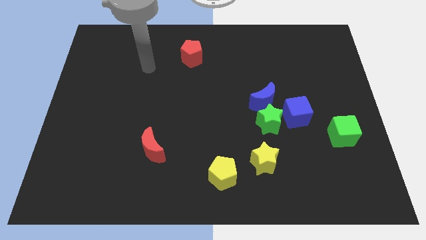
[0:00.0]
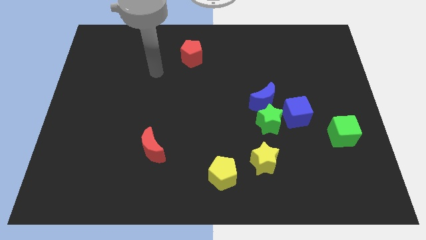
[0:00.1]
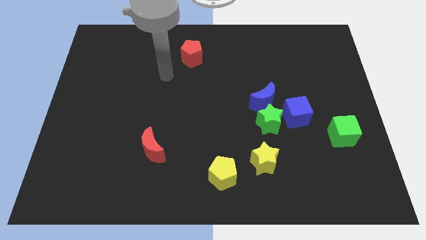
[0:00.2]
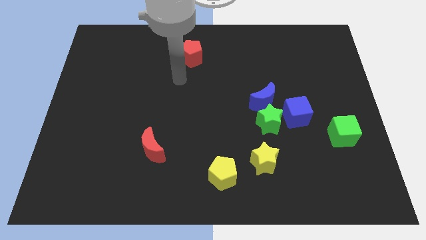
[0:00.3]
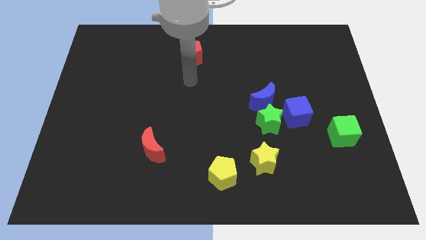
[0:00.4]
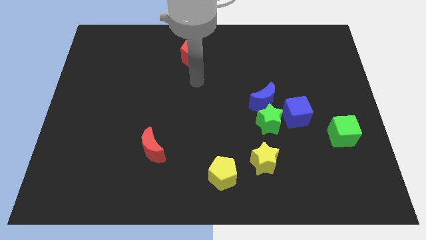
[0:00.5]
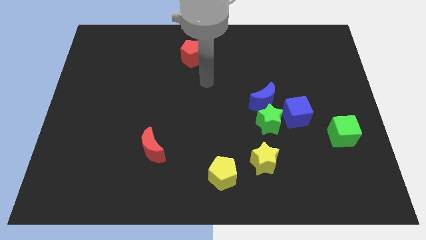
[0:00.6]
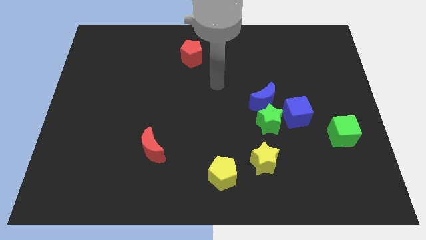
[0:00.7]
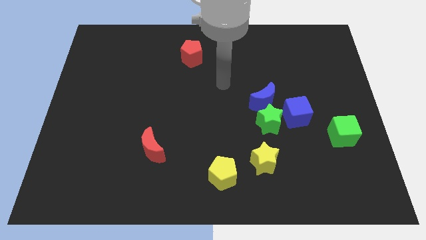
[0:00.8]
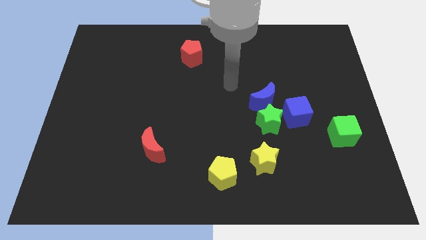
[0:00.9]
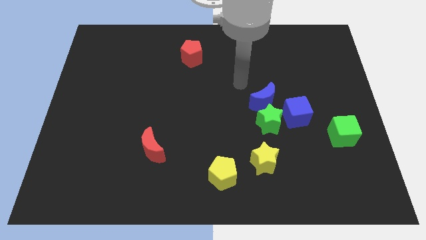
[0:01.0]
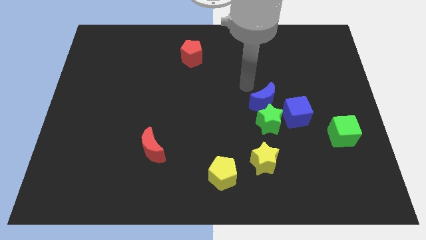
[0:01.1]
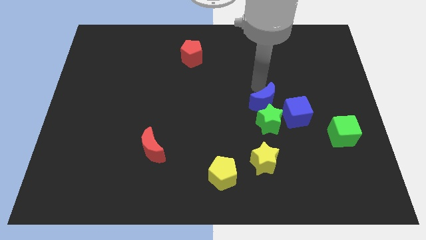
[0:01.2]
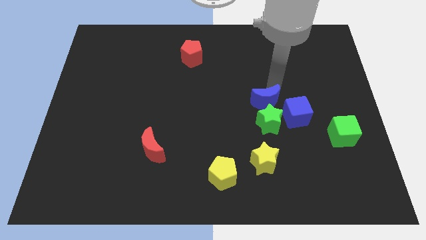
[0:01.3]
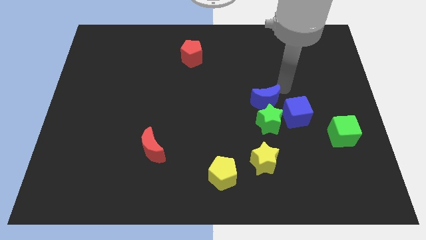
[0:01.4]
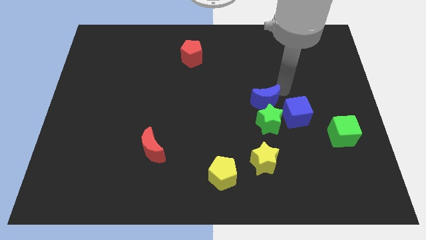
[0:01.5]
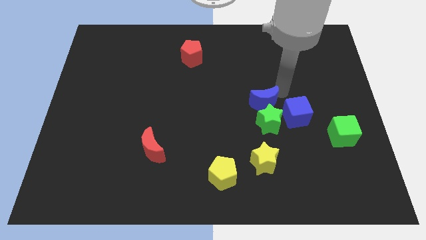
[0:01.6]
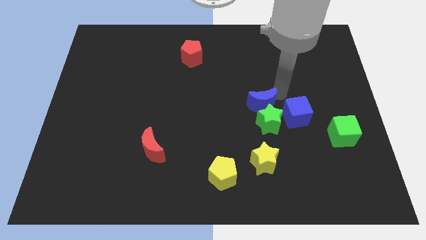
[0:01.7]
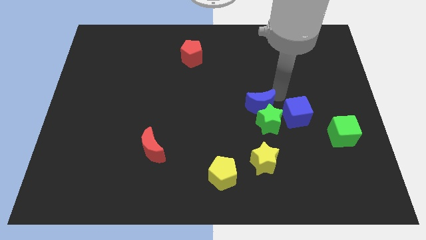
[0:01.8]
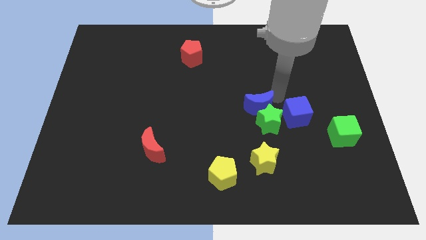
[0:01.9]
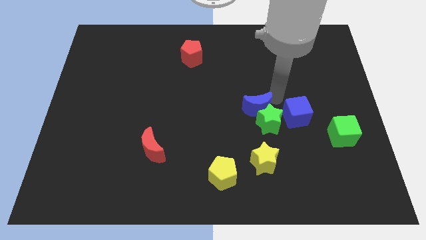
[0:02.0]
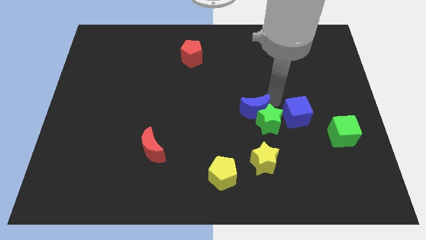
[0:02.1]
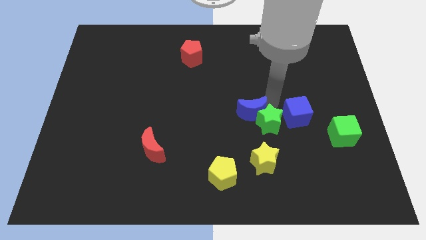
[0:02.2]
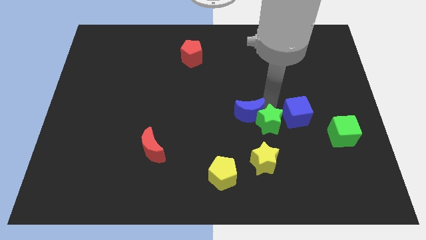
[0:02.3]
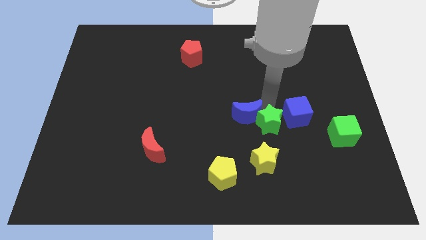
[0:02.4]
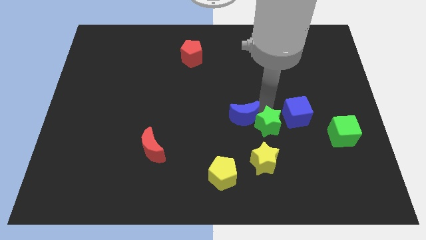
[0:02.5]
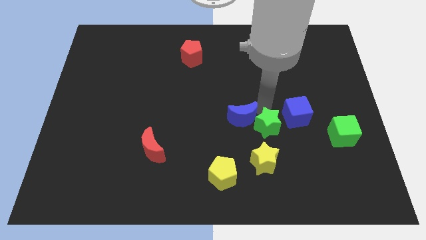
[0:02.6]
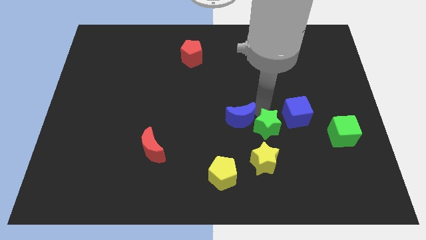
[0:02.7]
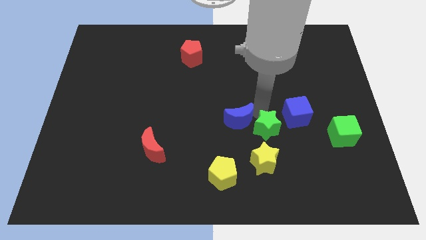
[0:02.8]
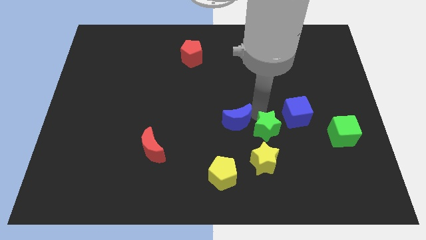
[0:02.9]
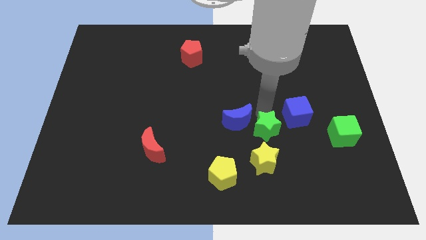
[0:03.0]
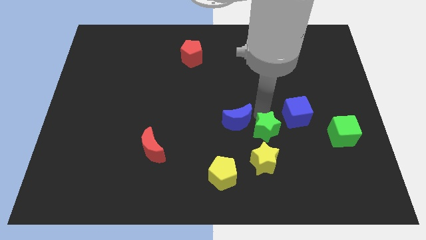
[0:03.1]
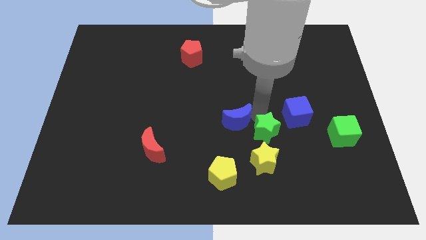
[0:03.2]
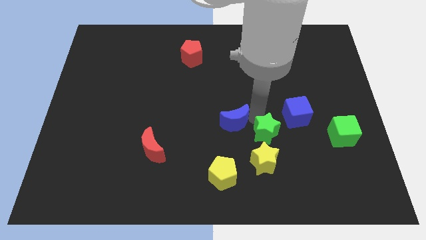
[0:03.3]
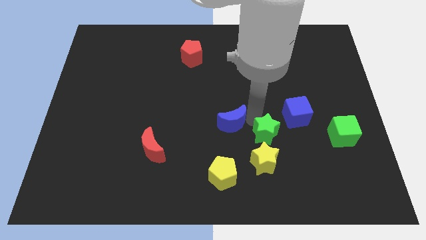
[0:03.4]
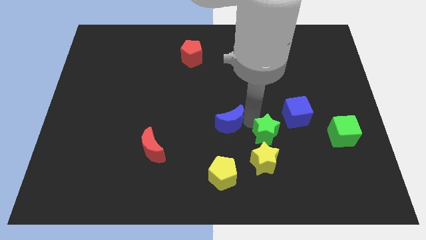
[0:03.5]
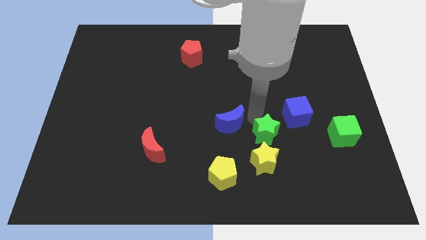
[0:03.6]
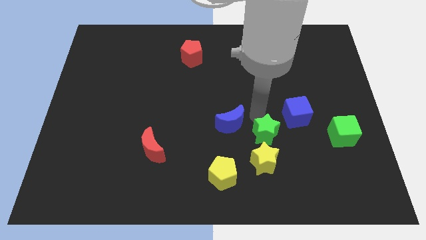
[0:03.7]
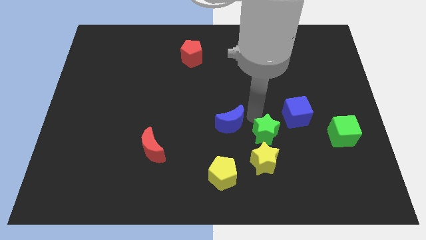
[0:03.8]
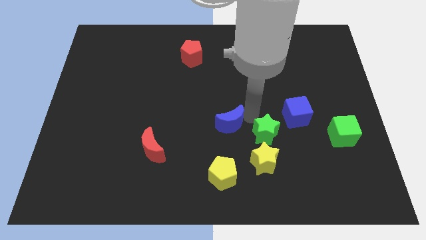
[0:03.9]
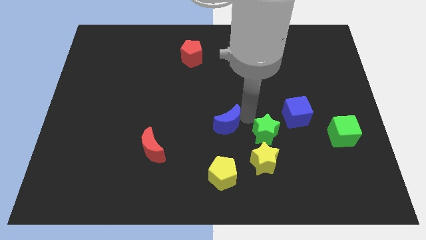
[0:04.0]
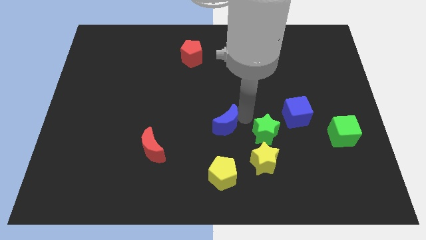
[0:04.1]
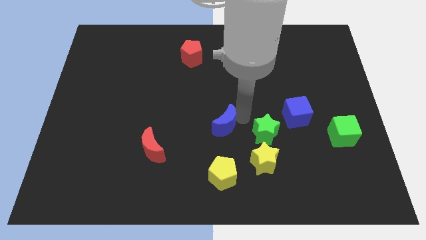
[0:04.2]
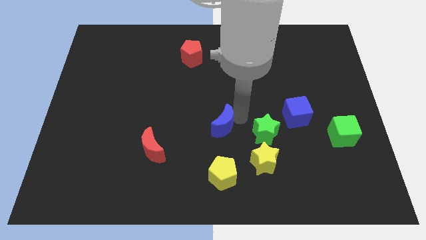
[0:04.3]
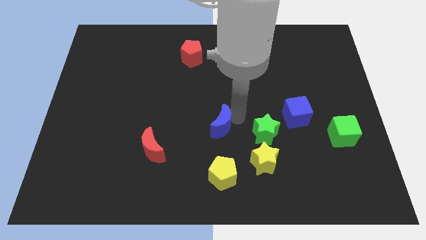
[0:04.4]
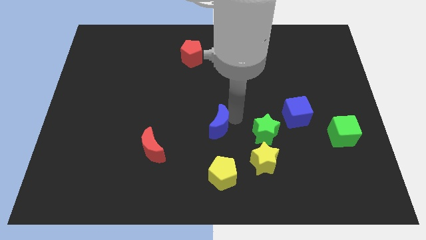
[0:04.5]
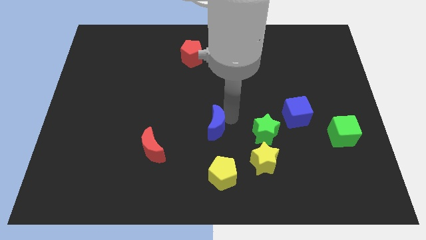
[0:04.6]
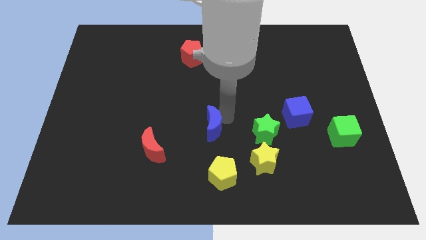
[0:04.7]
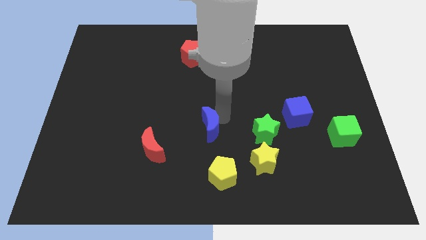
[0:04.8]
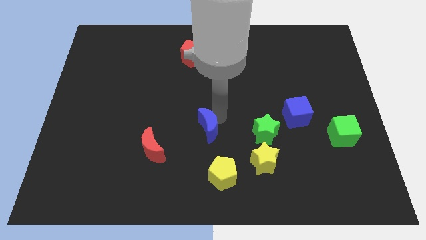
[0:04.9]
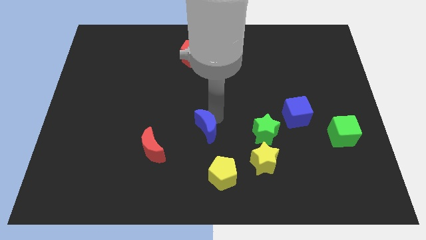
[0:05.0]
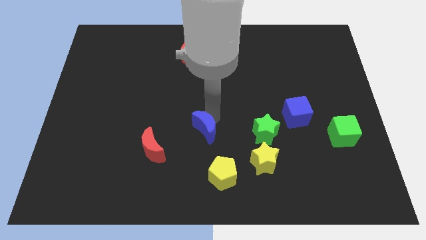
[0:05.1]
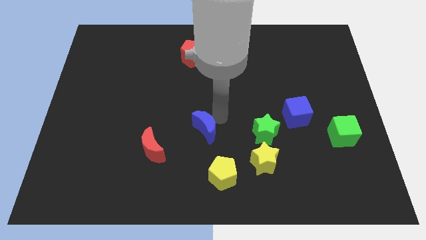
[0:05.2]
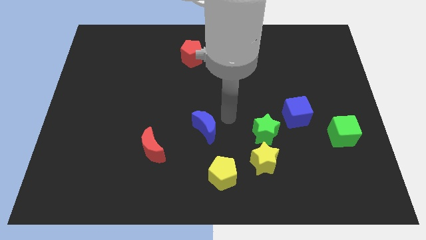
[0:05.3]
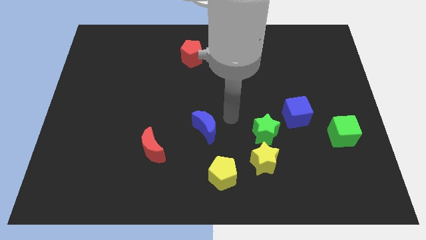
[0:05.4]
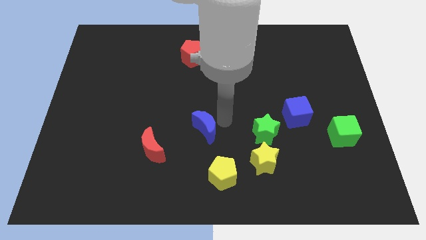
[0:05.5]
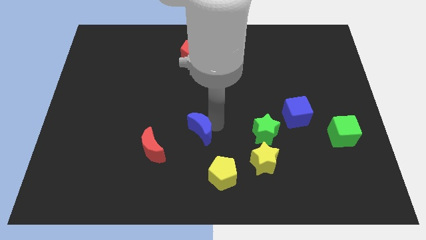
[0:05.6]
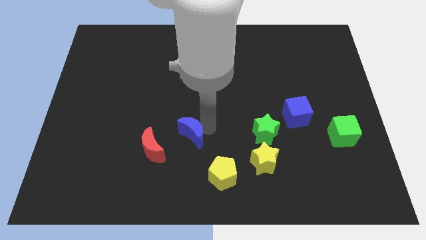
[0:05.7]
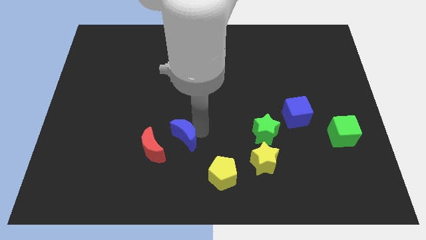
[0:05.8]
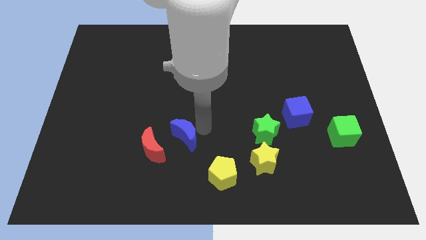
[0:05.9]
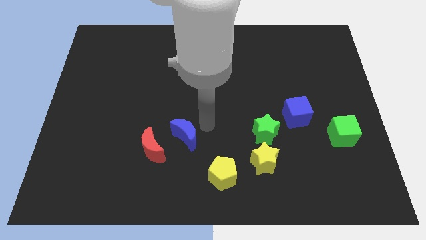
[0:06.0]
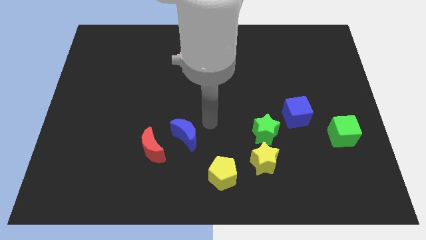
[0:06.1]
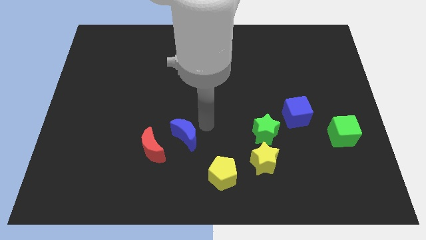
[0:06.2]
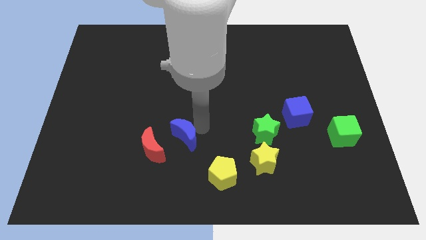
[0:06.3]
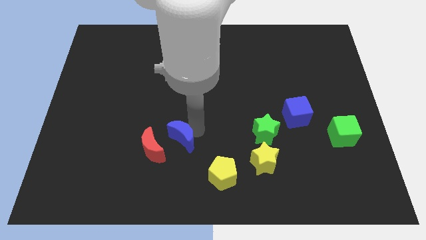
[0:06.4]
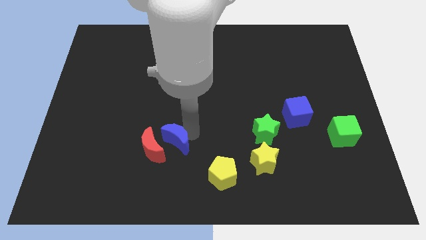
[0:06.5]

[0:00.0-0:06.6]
slide the blue moon next to the red moon

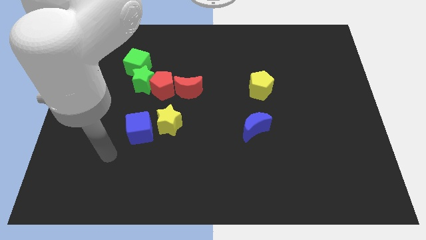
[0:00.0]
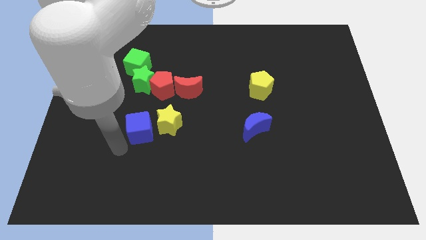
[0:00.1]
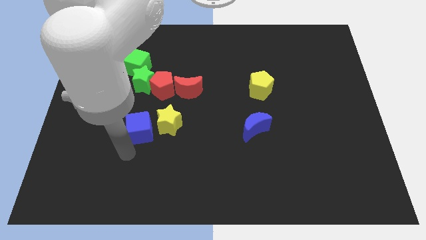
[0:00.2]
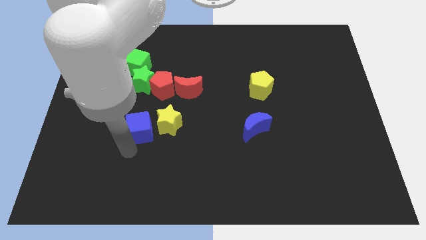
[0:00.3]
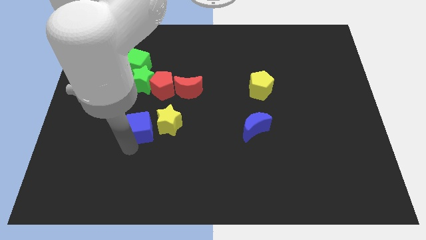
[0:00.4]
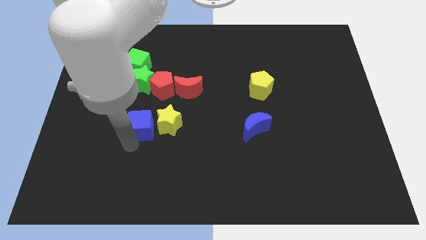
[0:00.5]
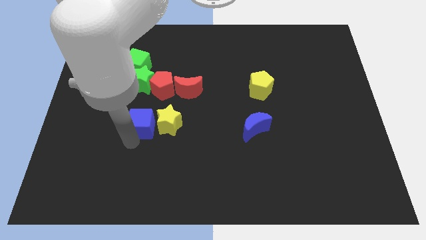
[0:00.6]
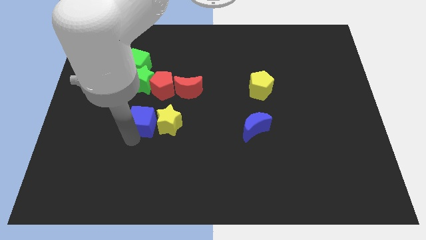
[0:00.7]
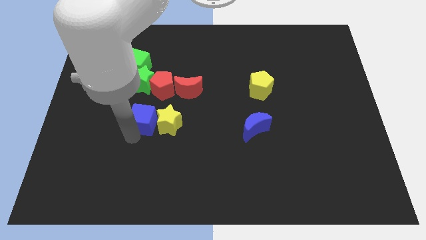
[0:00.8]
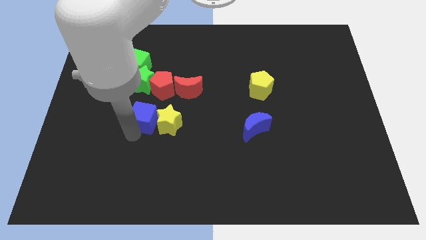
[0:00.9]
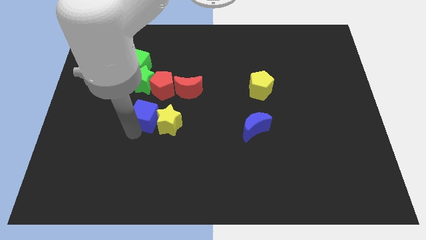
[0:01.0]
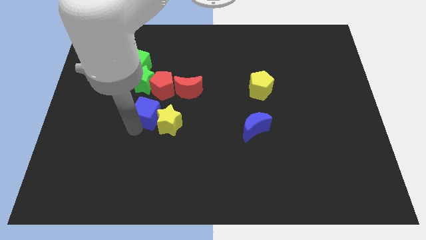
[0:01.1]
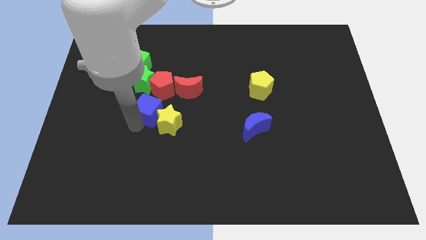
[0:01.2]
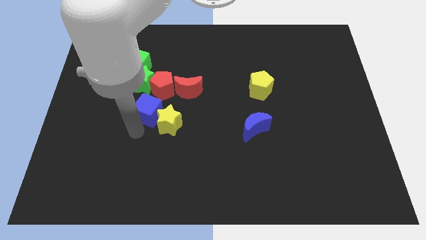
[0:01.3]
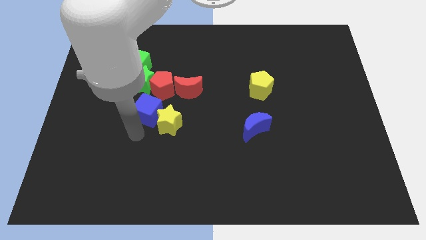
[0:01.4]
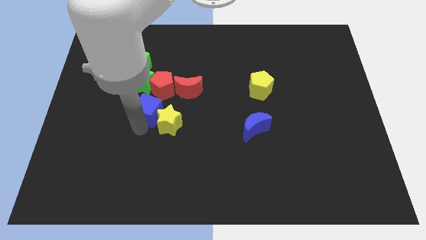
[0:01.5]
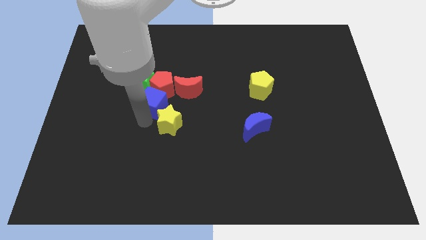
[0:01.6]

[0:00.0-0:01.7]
slide the blue cube to the red pentagon
